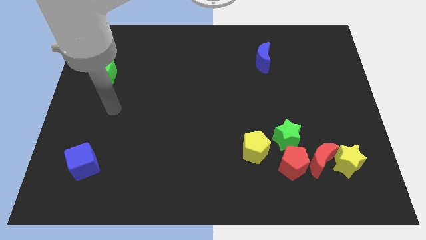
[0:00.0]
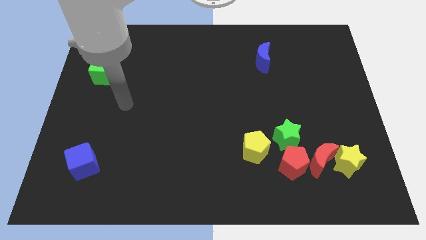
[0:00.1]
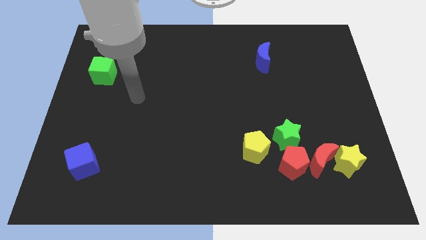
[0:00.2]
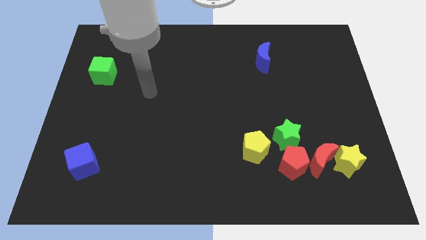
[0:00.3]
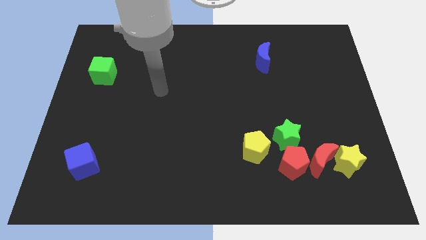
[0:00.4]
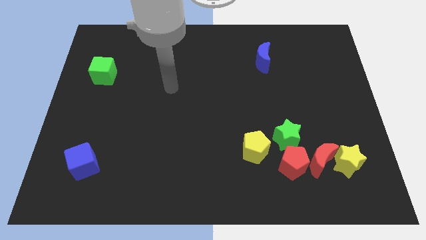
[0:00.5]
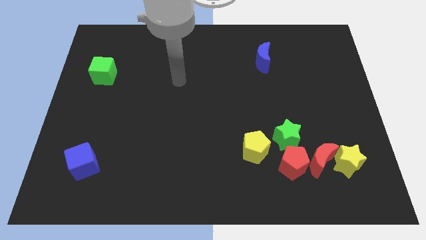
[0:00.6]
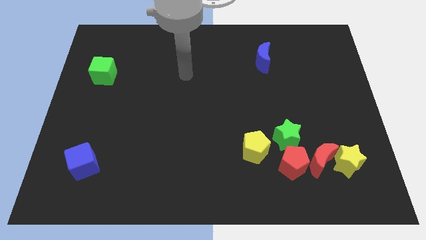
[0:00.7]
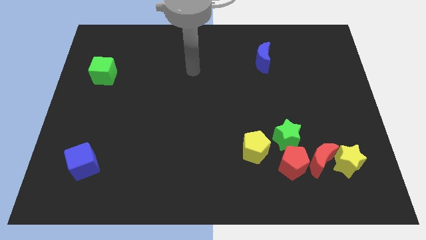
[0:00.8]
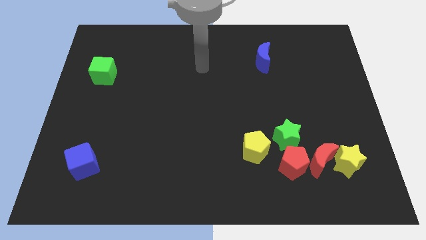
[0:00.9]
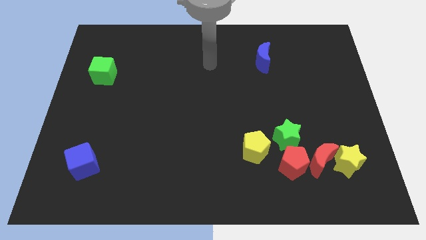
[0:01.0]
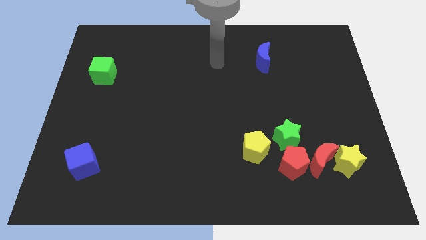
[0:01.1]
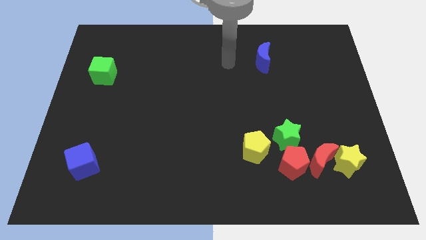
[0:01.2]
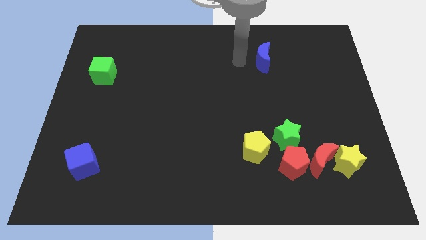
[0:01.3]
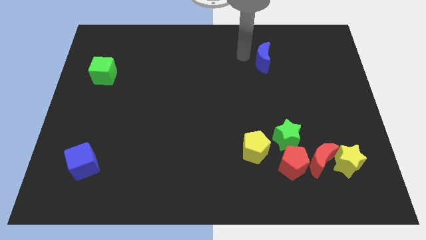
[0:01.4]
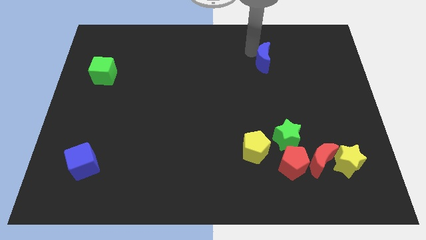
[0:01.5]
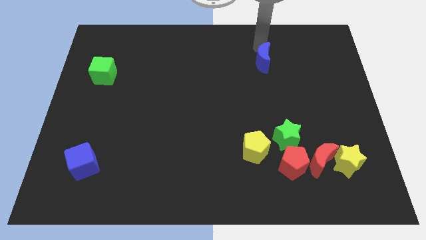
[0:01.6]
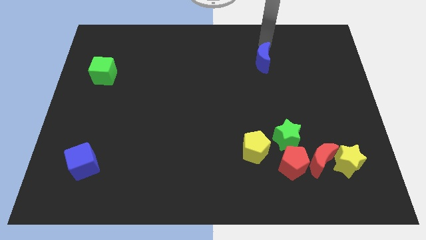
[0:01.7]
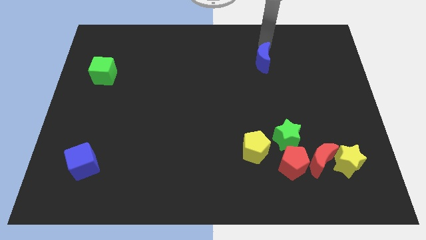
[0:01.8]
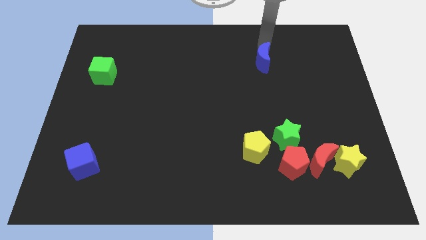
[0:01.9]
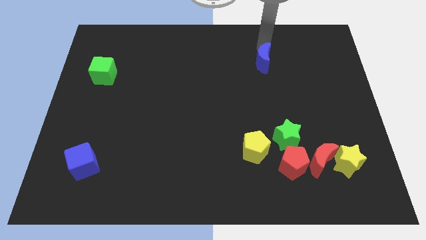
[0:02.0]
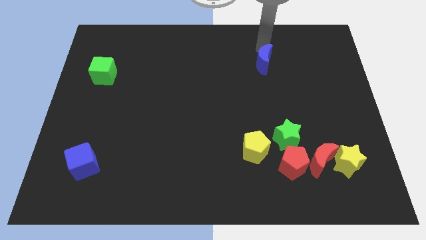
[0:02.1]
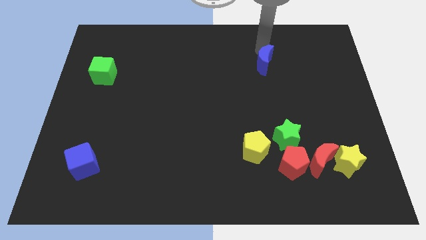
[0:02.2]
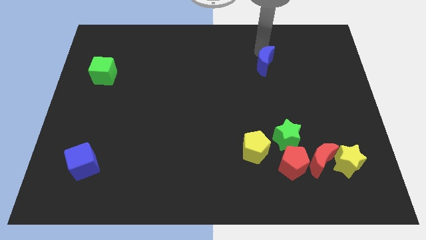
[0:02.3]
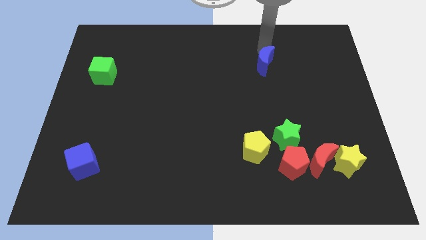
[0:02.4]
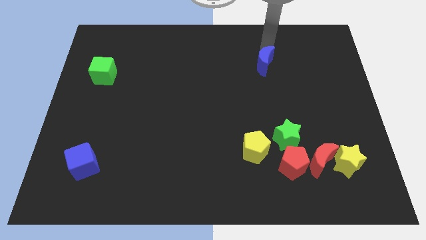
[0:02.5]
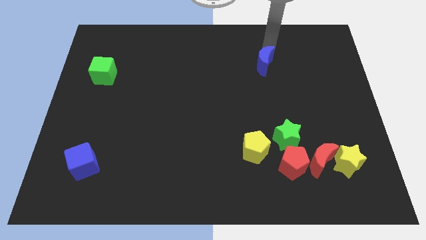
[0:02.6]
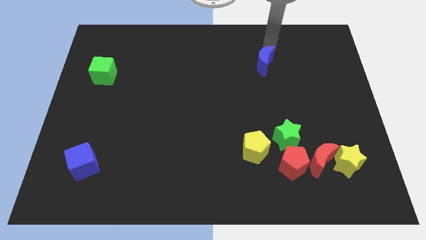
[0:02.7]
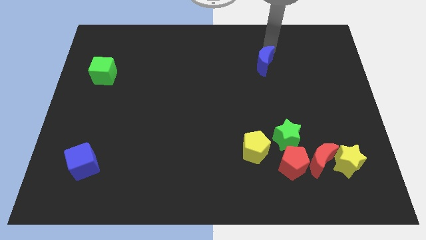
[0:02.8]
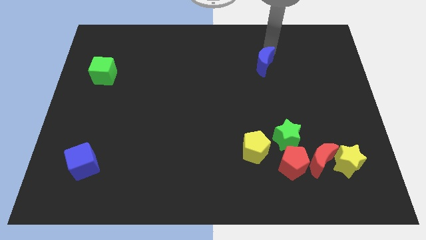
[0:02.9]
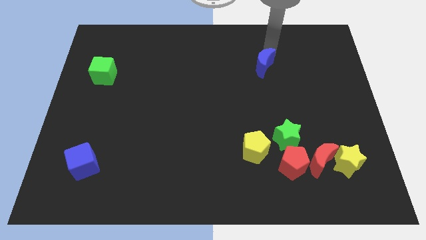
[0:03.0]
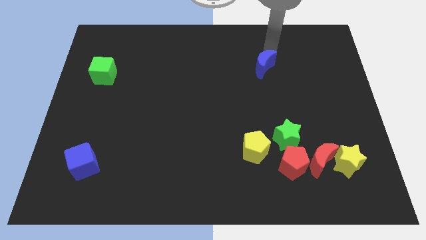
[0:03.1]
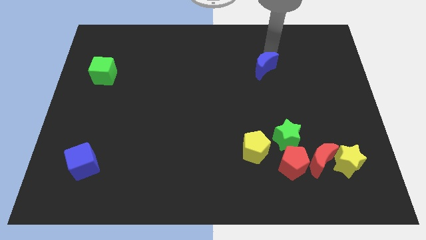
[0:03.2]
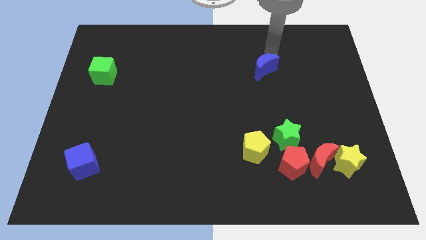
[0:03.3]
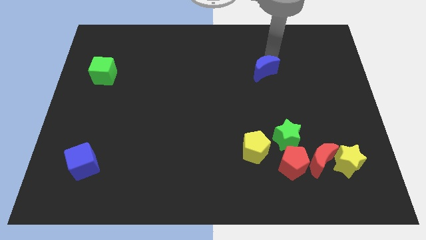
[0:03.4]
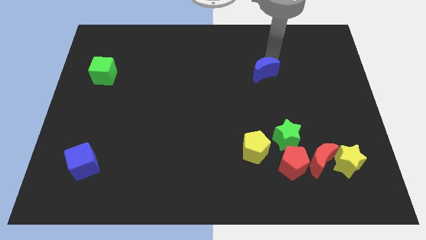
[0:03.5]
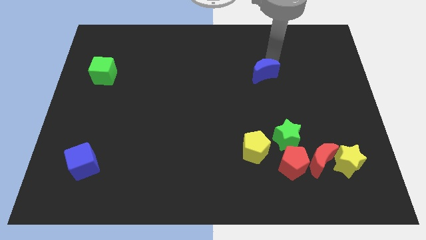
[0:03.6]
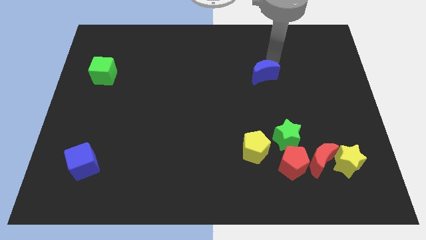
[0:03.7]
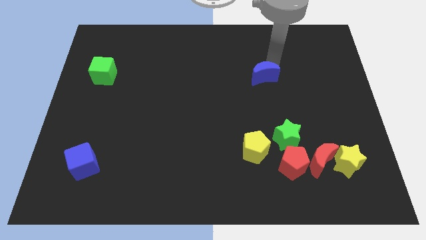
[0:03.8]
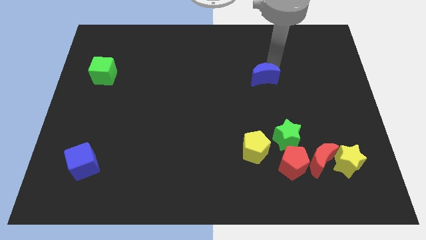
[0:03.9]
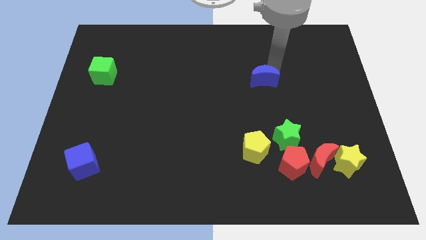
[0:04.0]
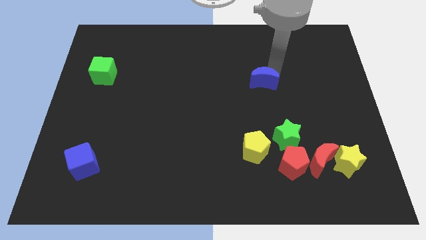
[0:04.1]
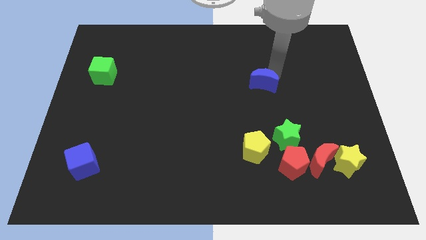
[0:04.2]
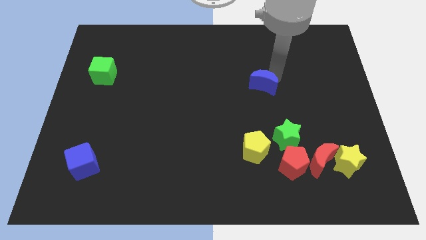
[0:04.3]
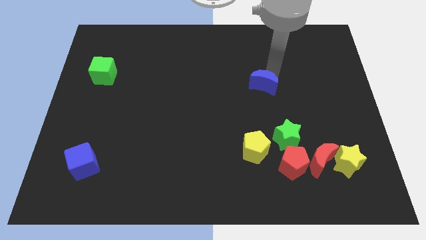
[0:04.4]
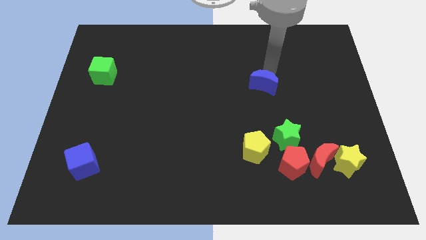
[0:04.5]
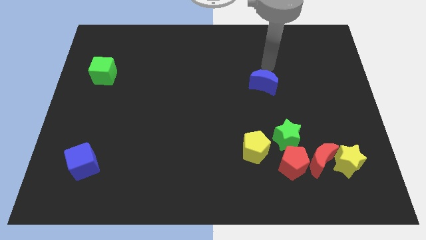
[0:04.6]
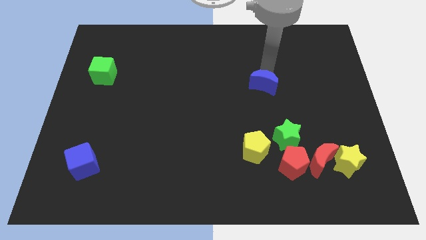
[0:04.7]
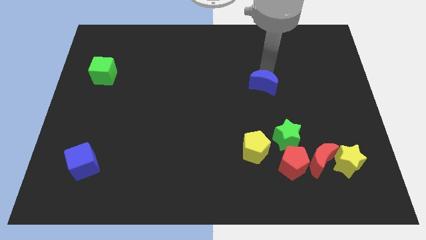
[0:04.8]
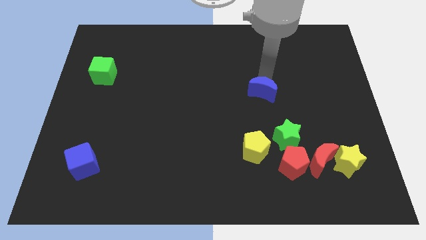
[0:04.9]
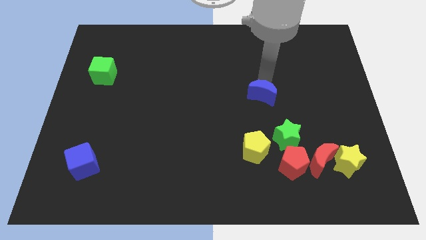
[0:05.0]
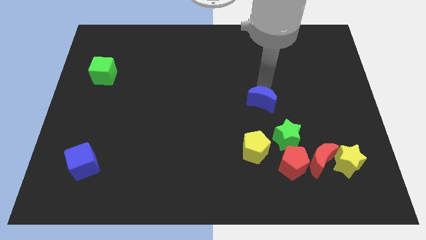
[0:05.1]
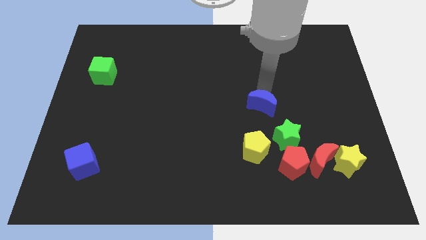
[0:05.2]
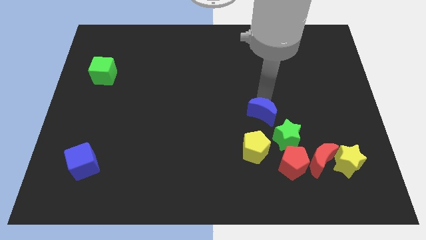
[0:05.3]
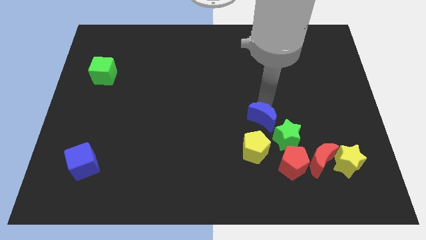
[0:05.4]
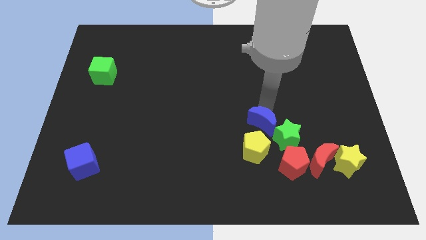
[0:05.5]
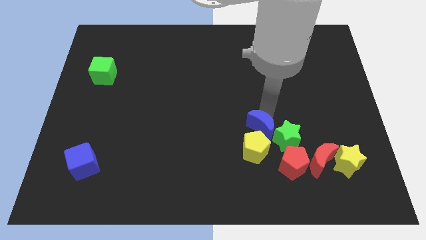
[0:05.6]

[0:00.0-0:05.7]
slide the blue moon diagonally up and to the left of the red pentagon

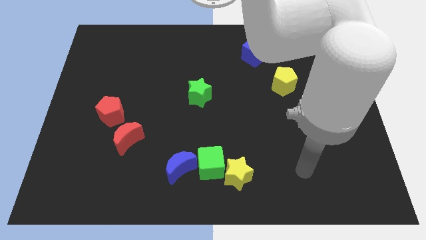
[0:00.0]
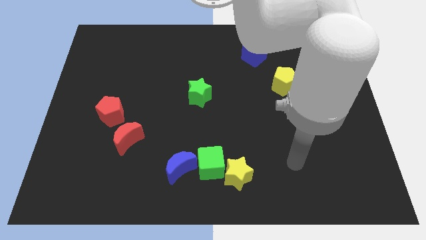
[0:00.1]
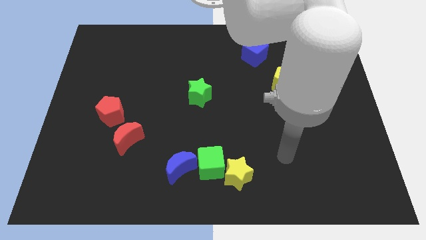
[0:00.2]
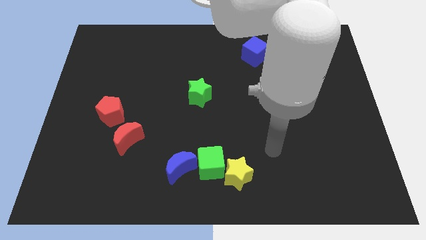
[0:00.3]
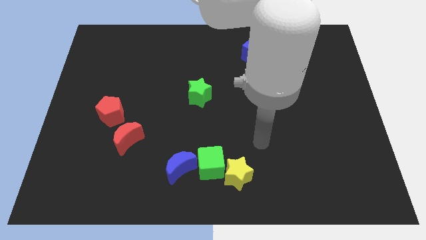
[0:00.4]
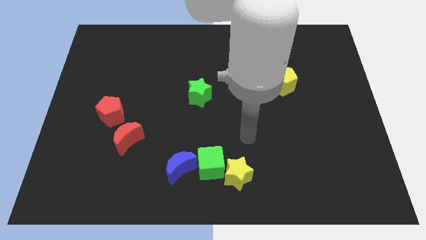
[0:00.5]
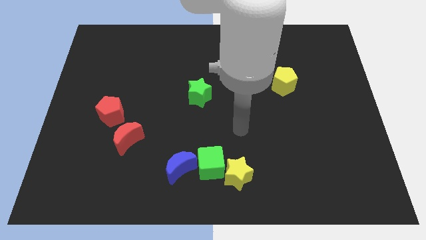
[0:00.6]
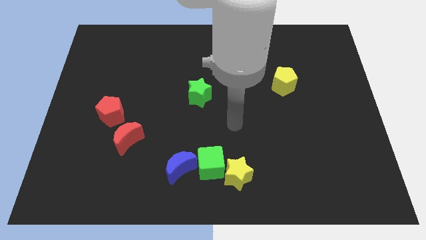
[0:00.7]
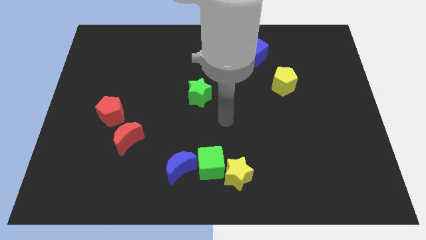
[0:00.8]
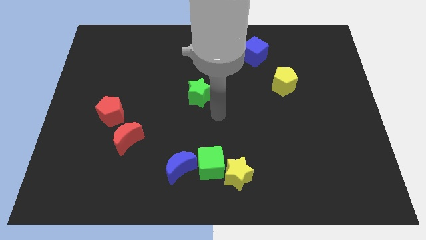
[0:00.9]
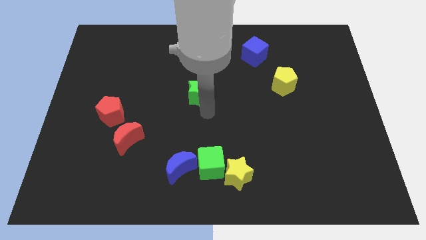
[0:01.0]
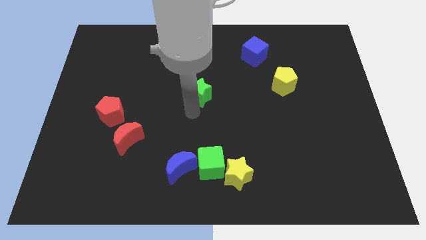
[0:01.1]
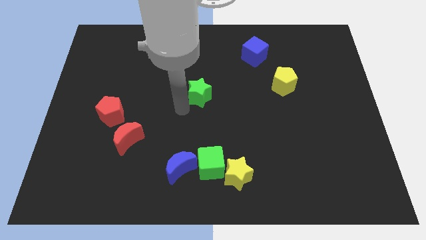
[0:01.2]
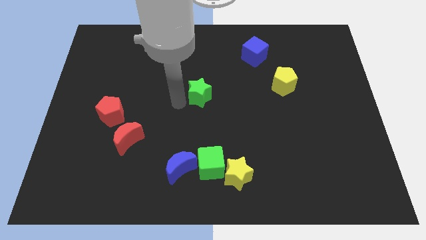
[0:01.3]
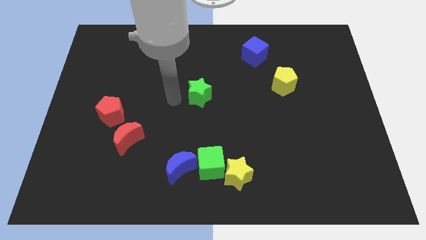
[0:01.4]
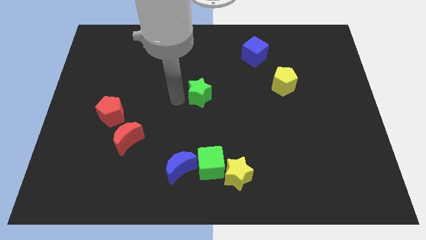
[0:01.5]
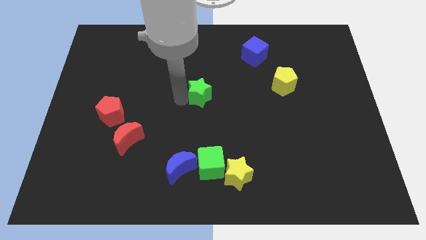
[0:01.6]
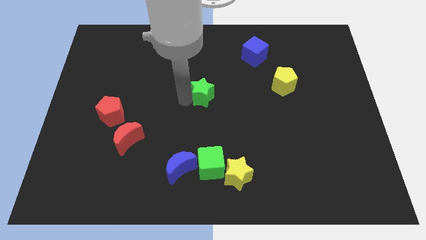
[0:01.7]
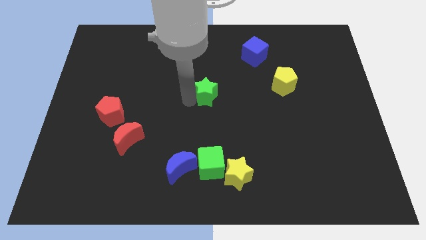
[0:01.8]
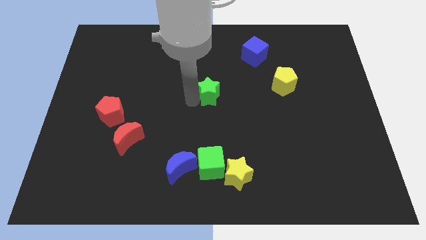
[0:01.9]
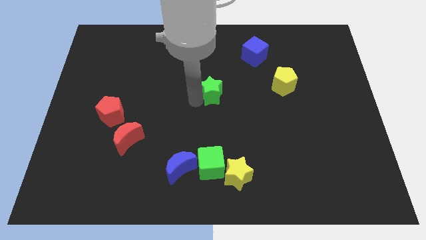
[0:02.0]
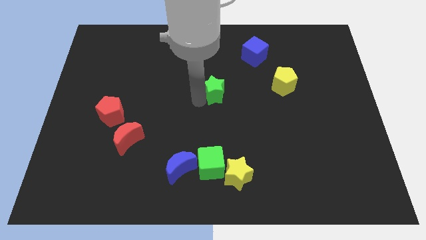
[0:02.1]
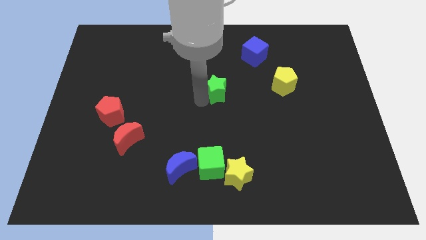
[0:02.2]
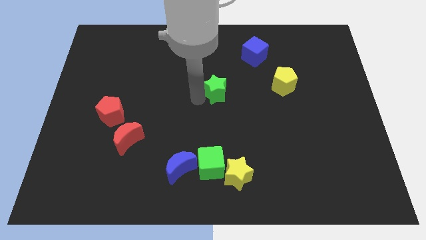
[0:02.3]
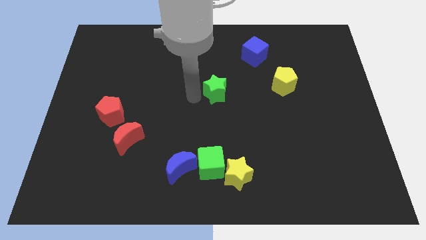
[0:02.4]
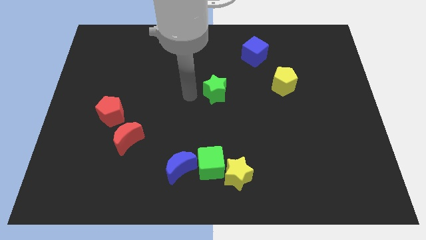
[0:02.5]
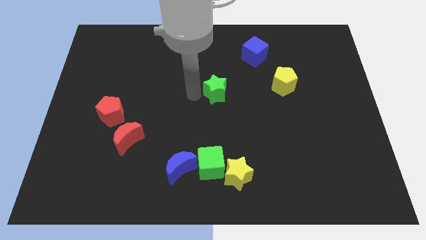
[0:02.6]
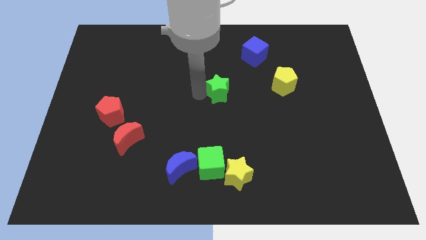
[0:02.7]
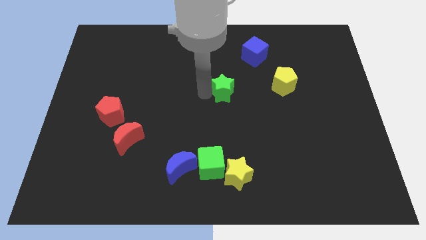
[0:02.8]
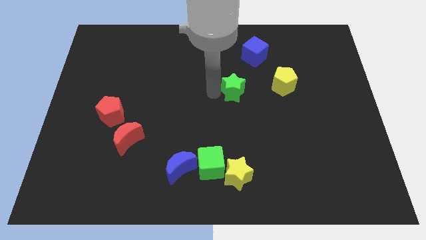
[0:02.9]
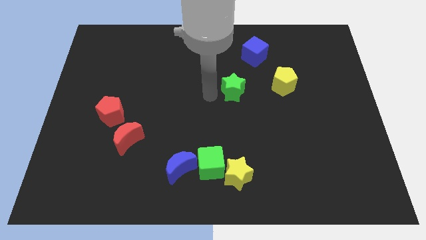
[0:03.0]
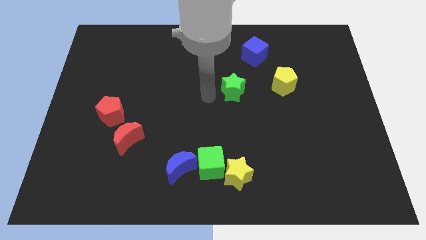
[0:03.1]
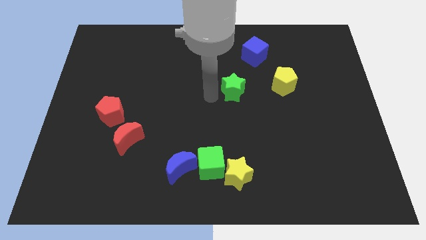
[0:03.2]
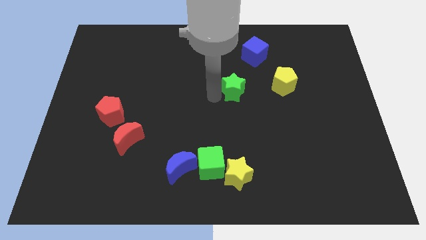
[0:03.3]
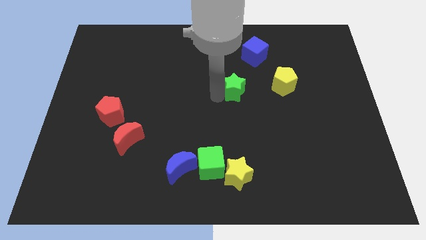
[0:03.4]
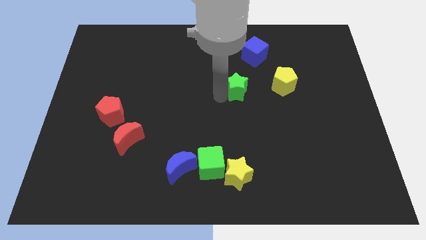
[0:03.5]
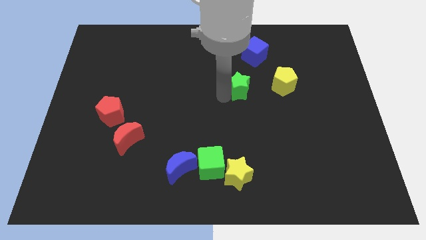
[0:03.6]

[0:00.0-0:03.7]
push the green star below the blue cube
